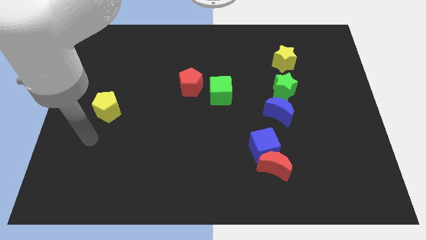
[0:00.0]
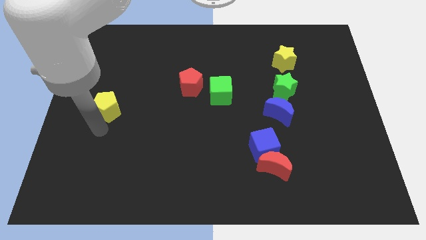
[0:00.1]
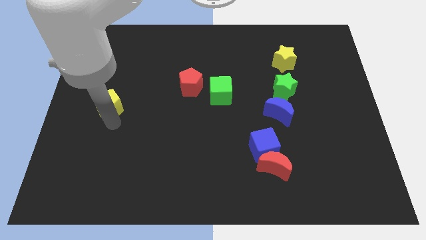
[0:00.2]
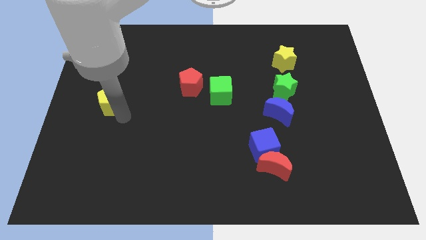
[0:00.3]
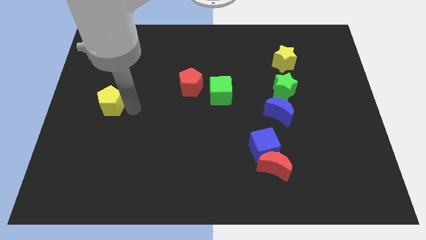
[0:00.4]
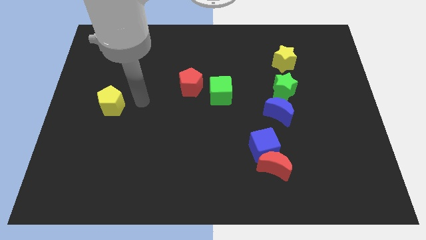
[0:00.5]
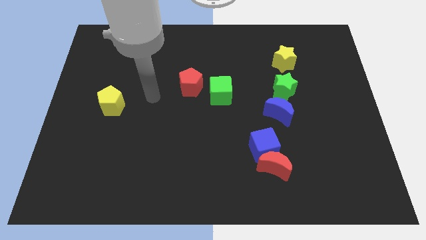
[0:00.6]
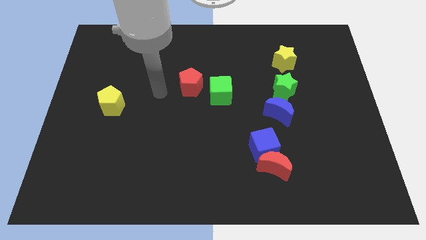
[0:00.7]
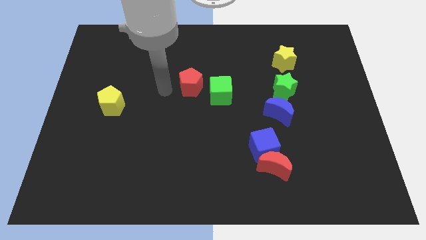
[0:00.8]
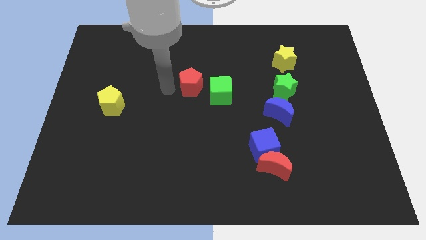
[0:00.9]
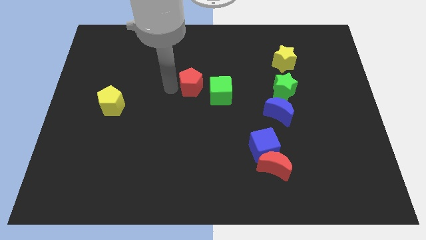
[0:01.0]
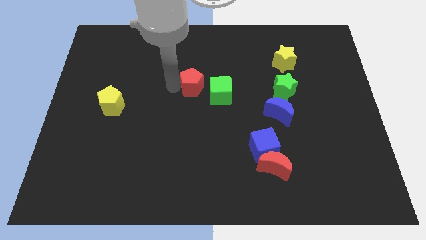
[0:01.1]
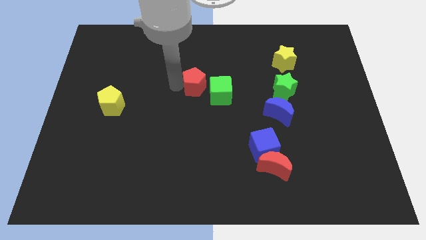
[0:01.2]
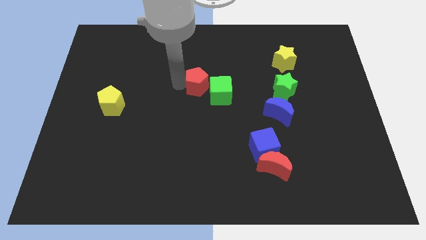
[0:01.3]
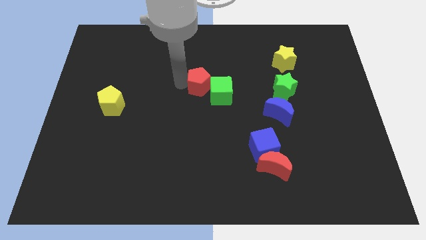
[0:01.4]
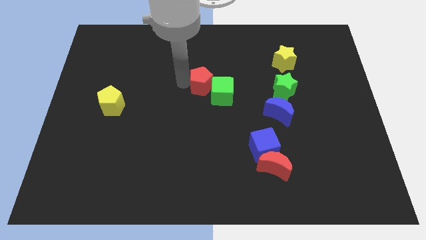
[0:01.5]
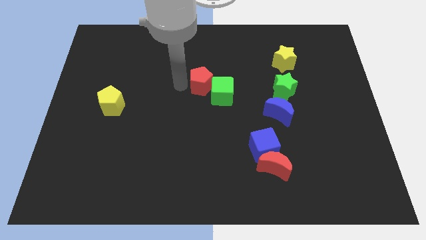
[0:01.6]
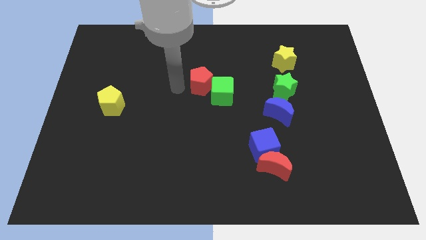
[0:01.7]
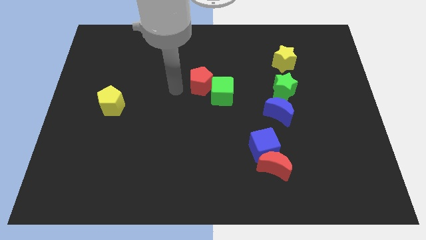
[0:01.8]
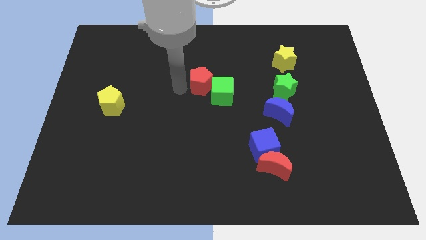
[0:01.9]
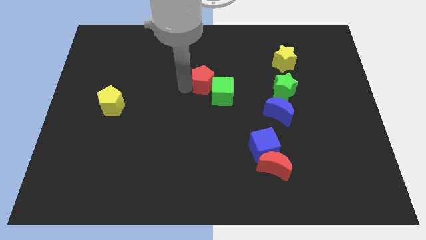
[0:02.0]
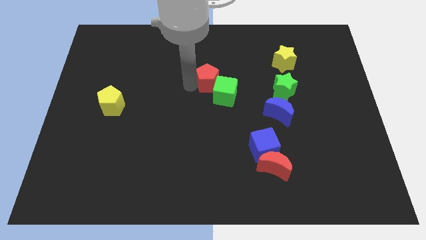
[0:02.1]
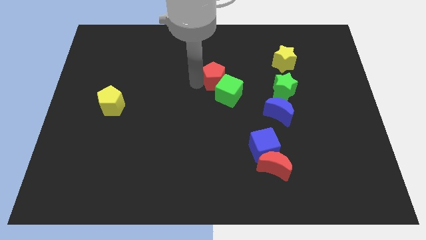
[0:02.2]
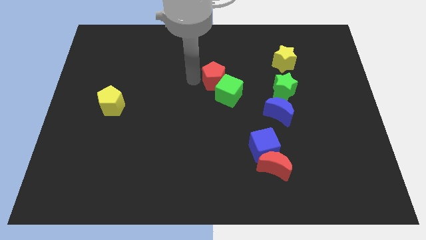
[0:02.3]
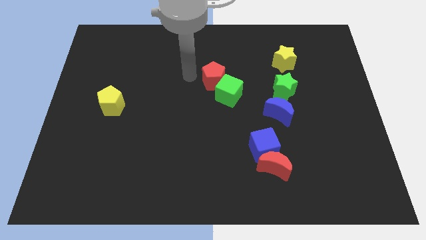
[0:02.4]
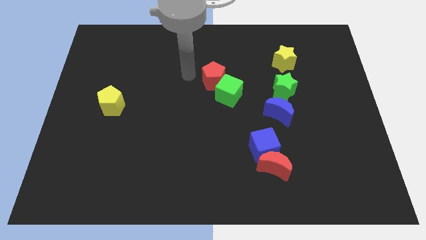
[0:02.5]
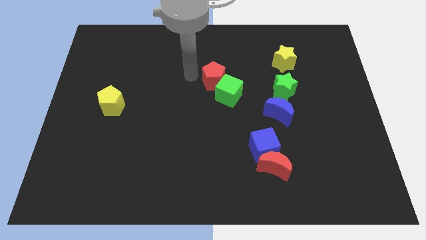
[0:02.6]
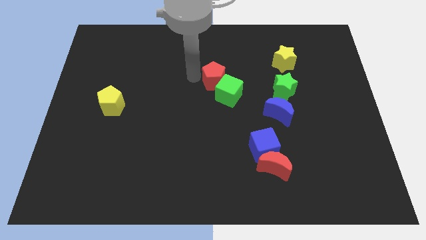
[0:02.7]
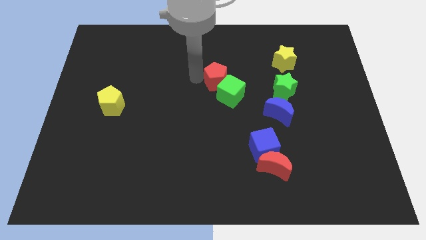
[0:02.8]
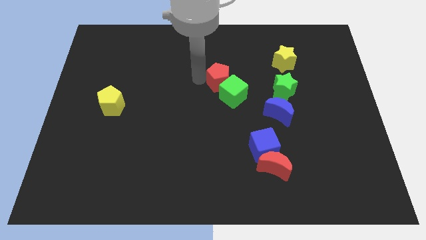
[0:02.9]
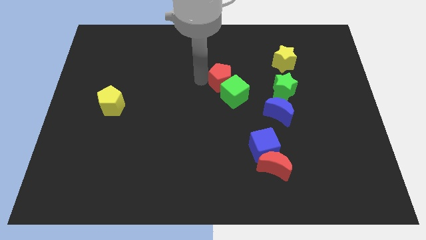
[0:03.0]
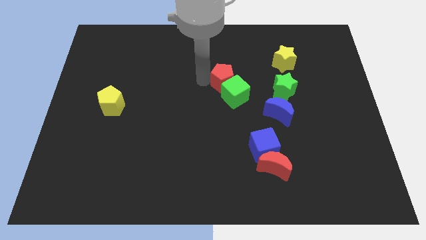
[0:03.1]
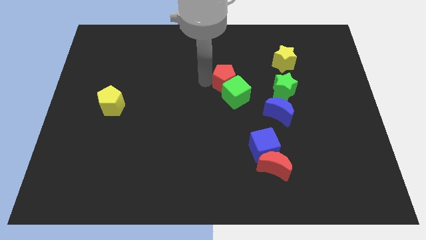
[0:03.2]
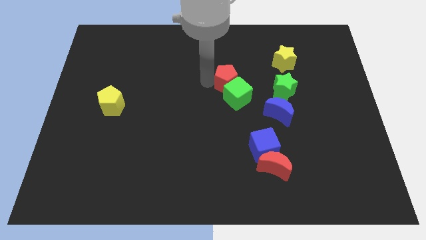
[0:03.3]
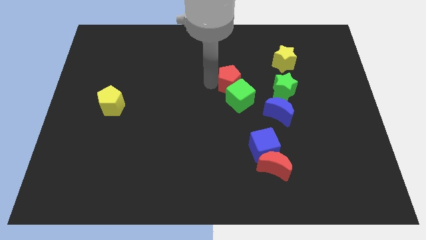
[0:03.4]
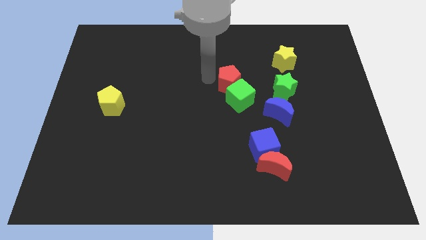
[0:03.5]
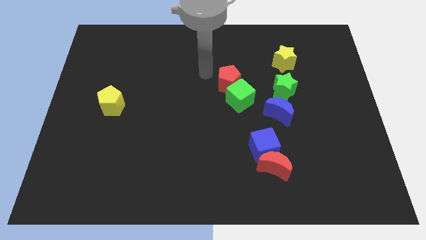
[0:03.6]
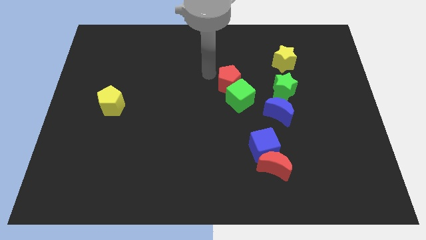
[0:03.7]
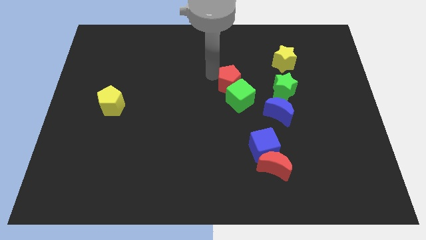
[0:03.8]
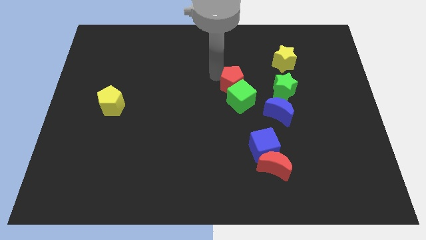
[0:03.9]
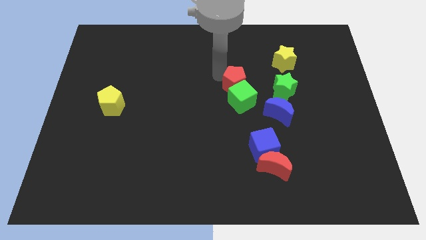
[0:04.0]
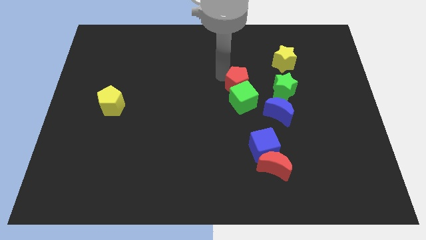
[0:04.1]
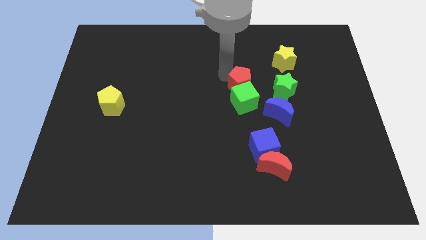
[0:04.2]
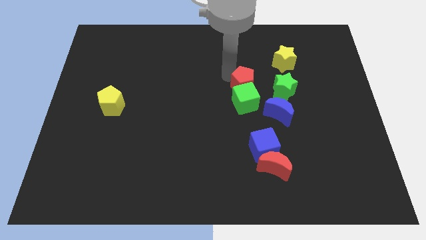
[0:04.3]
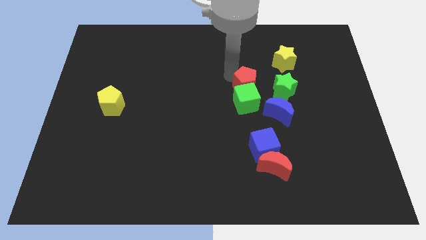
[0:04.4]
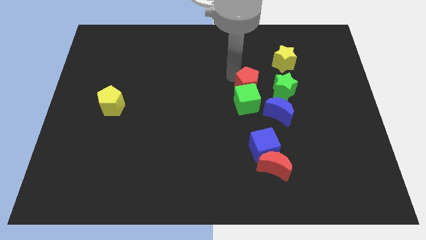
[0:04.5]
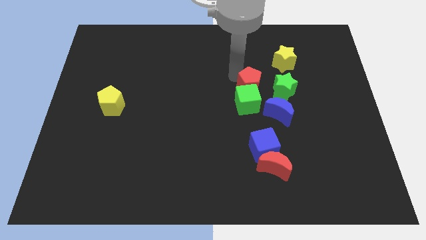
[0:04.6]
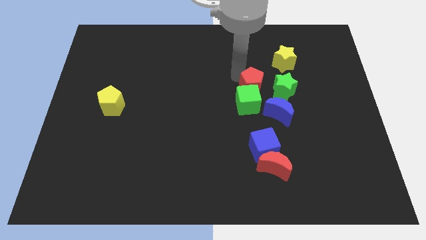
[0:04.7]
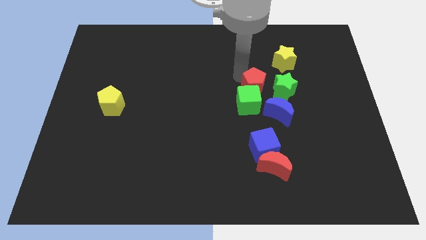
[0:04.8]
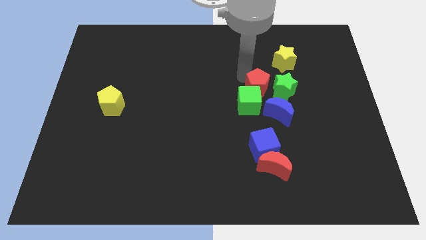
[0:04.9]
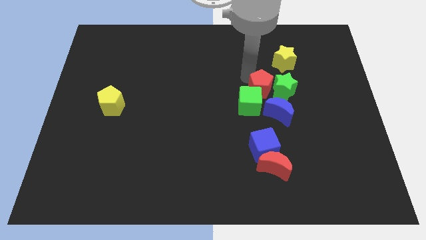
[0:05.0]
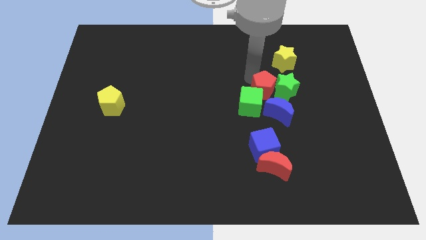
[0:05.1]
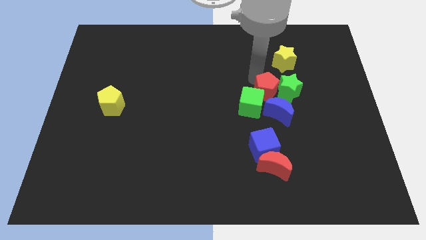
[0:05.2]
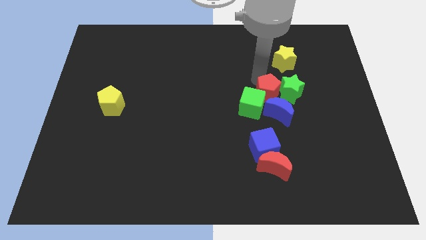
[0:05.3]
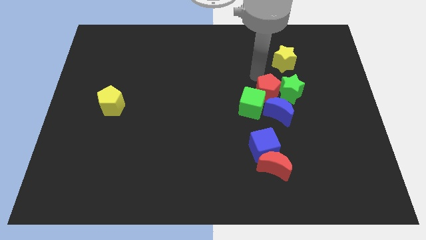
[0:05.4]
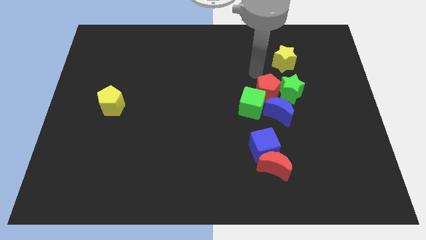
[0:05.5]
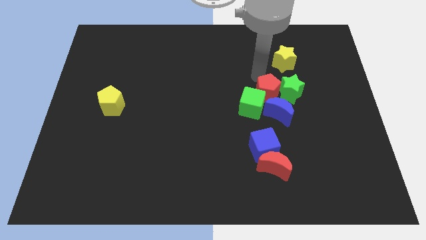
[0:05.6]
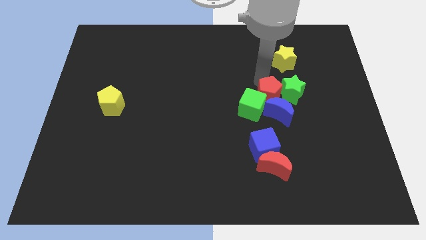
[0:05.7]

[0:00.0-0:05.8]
move the red pentagon to the blue moon

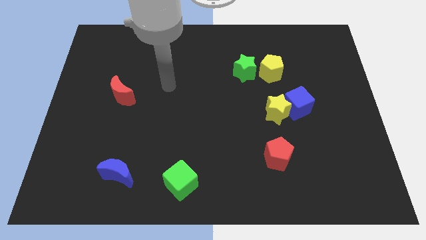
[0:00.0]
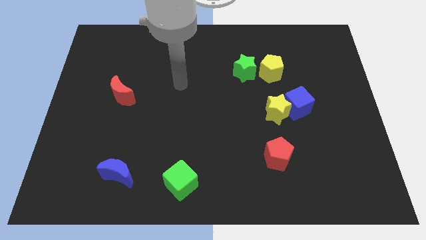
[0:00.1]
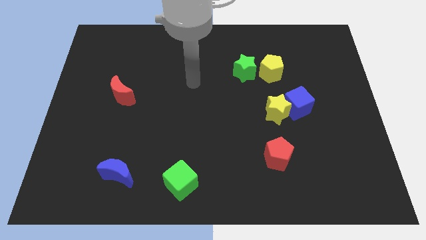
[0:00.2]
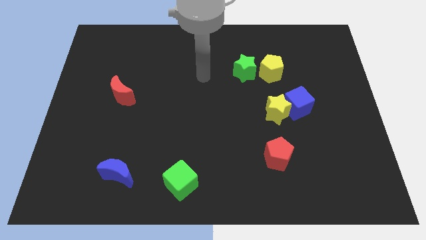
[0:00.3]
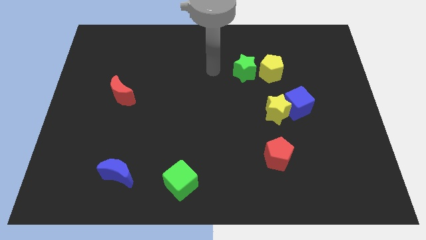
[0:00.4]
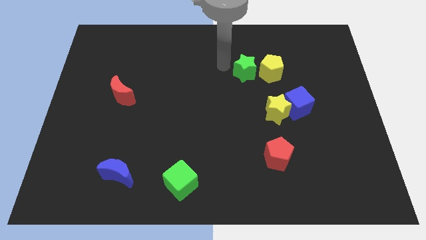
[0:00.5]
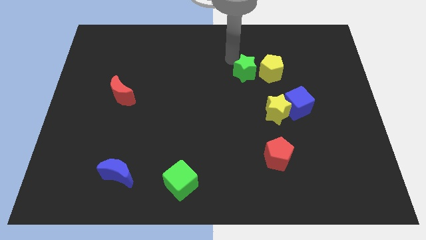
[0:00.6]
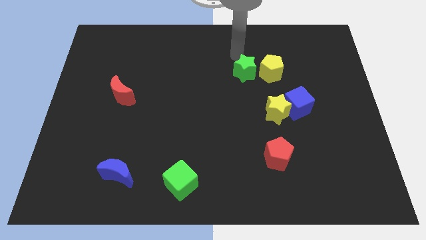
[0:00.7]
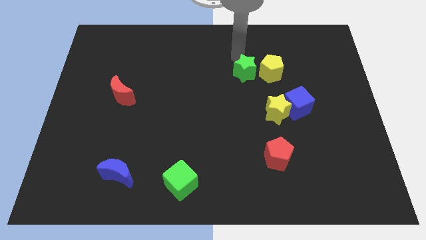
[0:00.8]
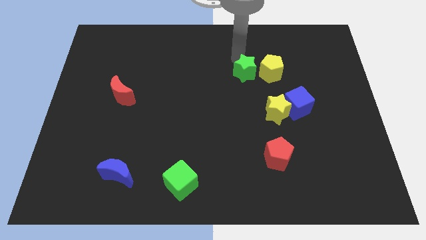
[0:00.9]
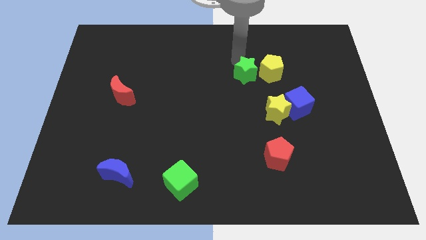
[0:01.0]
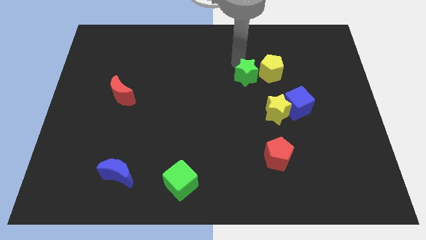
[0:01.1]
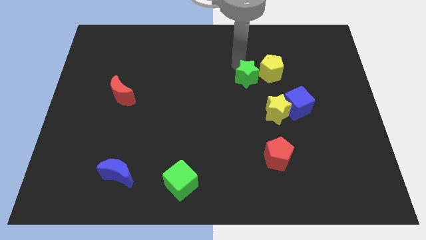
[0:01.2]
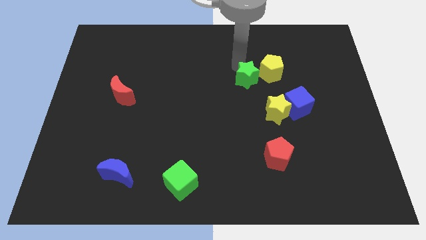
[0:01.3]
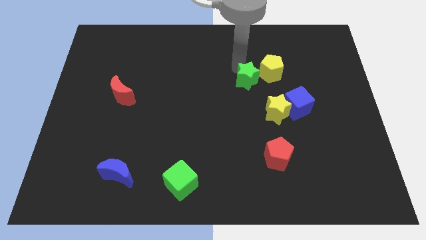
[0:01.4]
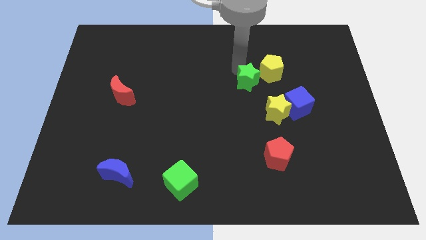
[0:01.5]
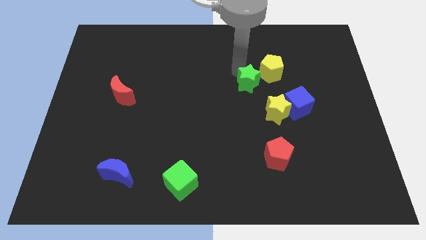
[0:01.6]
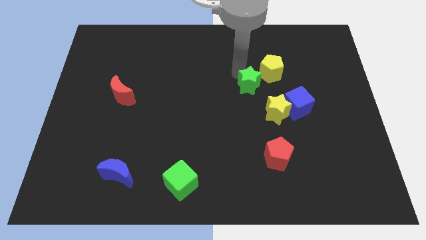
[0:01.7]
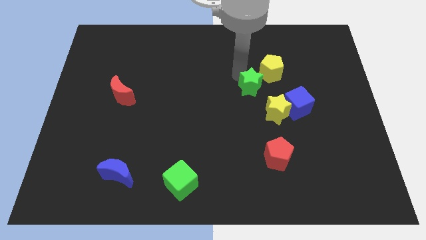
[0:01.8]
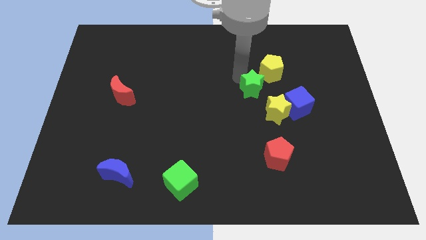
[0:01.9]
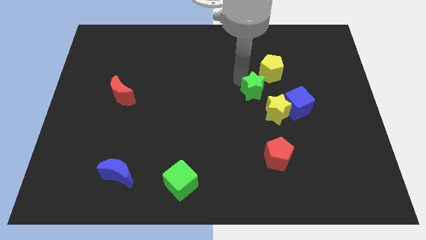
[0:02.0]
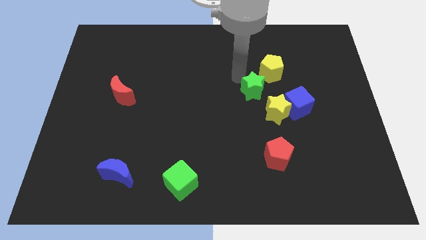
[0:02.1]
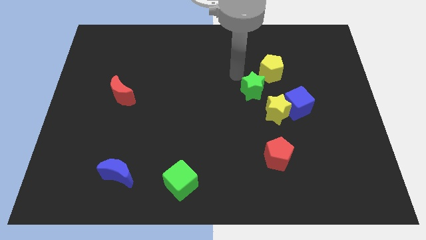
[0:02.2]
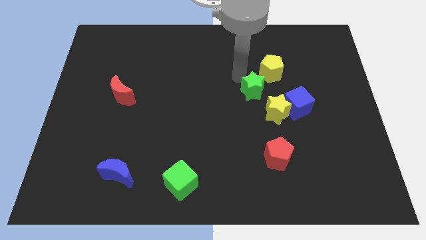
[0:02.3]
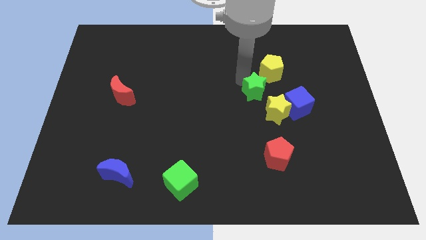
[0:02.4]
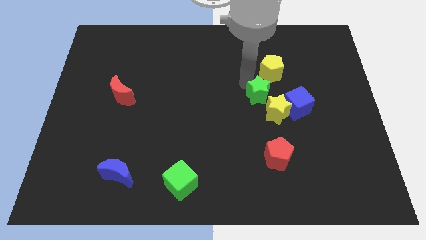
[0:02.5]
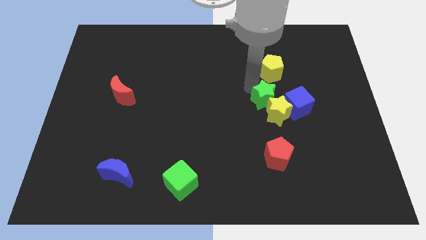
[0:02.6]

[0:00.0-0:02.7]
move the green star next to the yellow star
